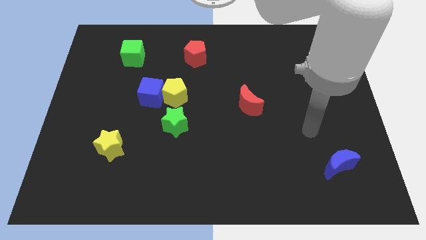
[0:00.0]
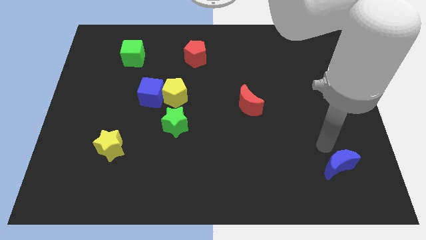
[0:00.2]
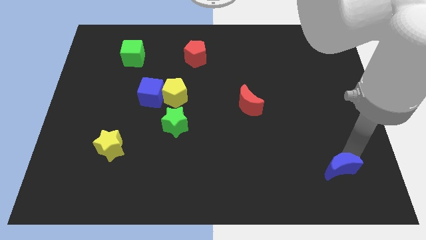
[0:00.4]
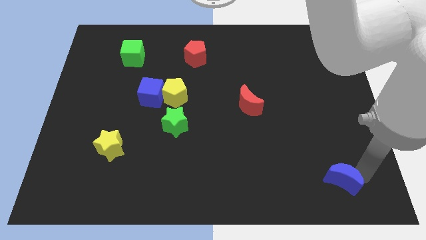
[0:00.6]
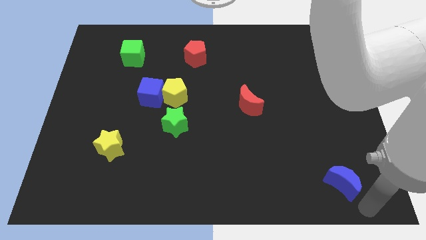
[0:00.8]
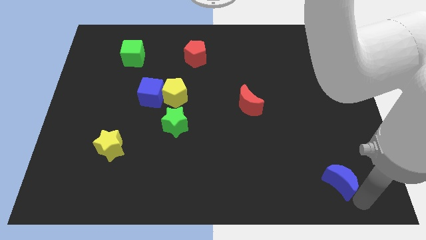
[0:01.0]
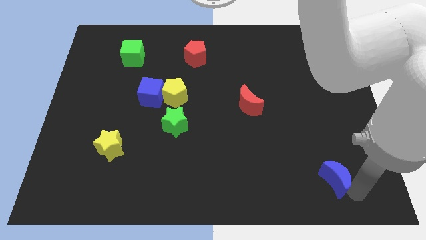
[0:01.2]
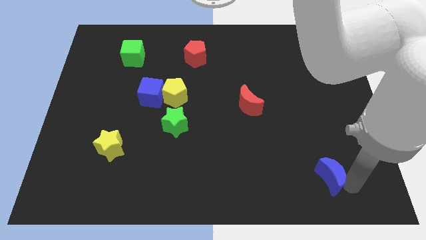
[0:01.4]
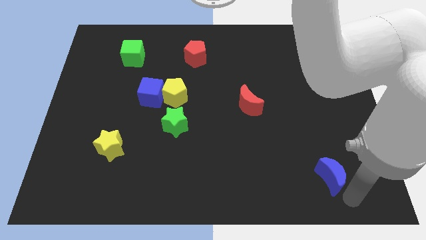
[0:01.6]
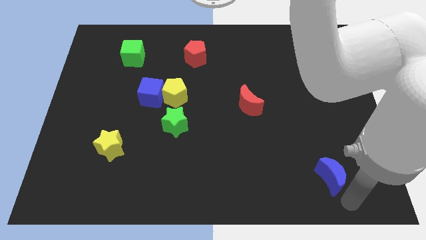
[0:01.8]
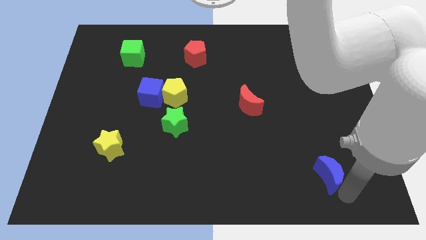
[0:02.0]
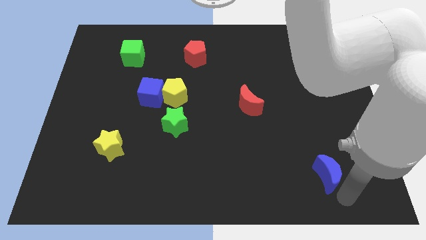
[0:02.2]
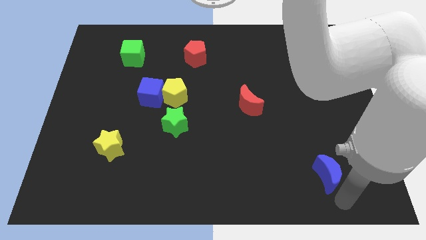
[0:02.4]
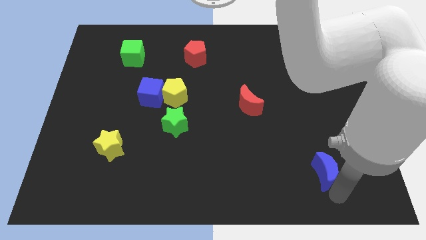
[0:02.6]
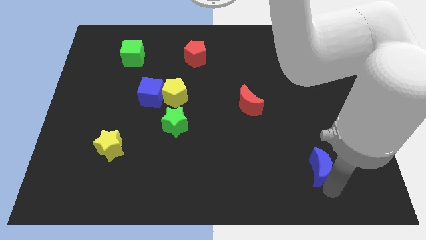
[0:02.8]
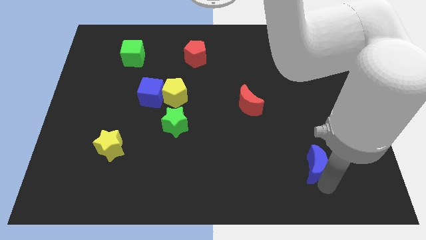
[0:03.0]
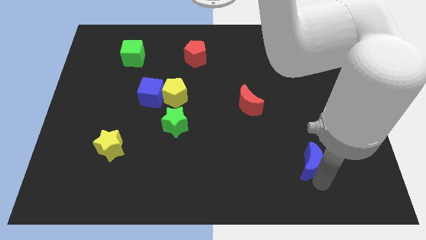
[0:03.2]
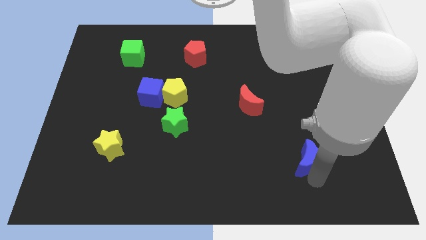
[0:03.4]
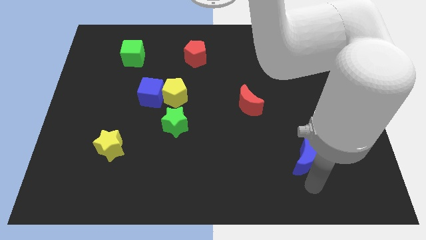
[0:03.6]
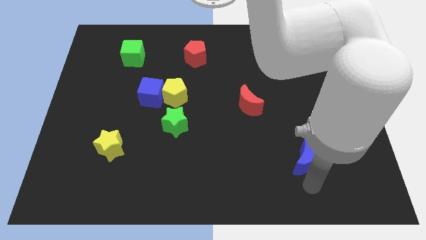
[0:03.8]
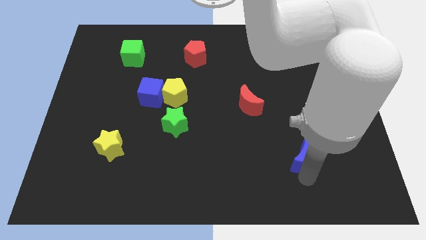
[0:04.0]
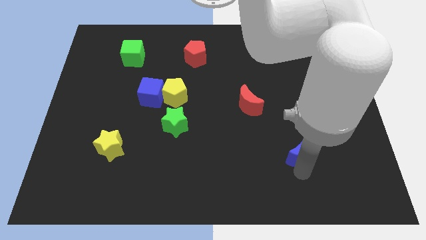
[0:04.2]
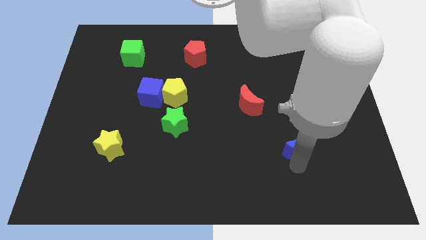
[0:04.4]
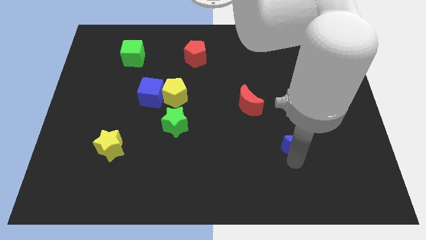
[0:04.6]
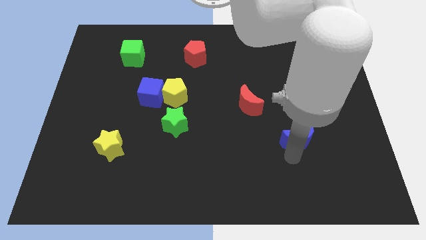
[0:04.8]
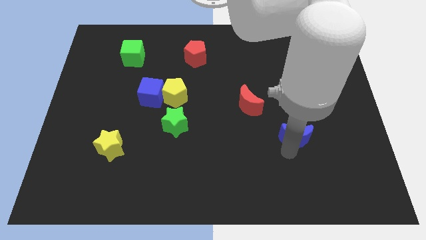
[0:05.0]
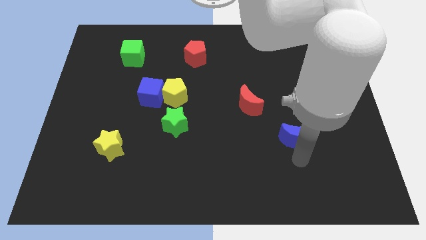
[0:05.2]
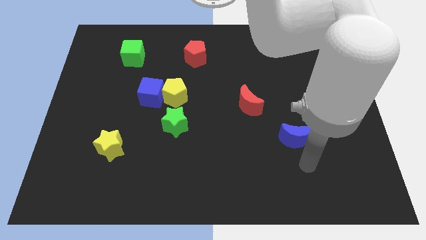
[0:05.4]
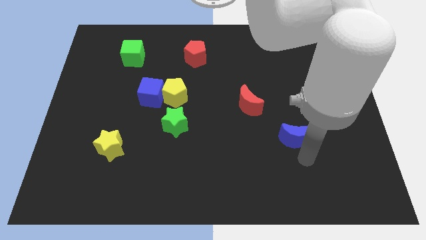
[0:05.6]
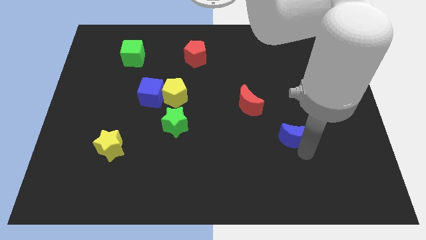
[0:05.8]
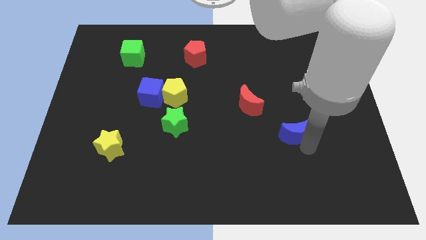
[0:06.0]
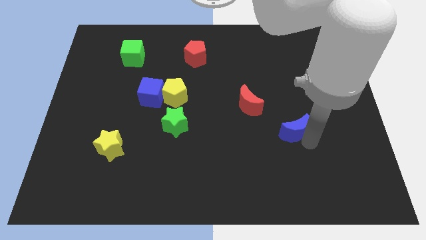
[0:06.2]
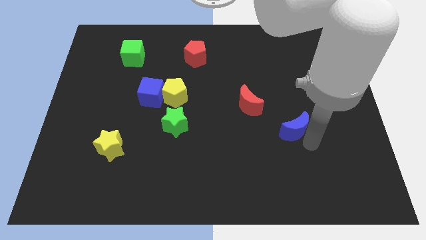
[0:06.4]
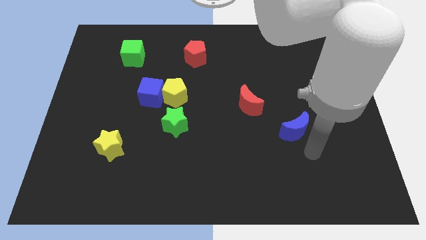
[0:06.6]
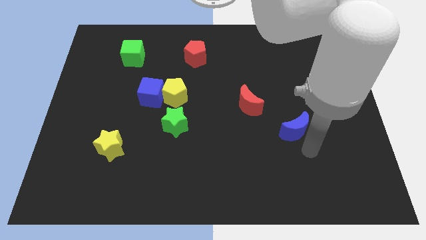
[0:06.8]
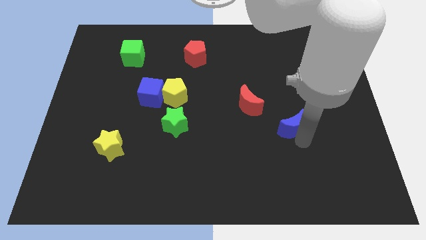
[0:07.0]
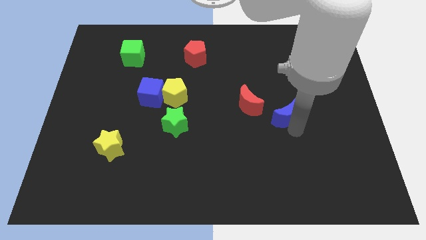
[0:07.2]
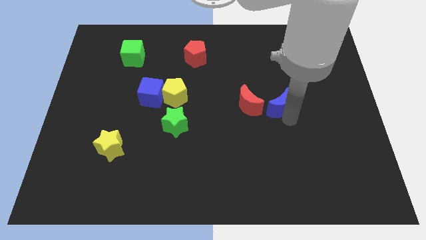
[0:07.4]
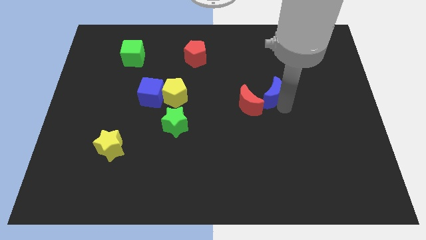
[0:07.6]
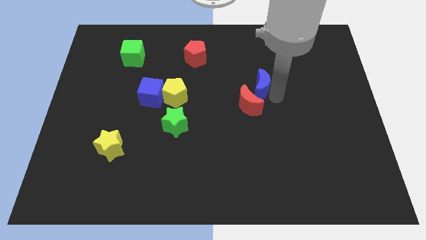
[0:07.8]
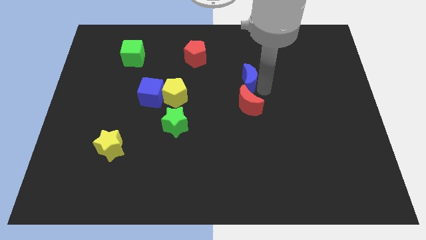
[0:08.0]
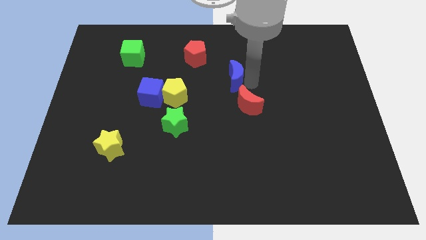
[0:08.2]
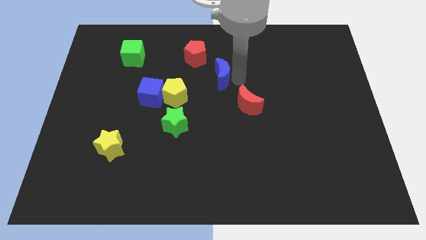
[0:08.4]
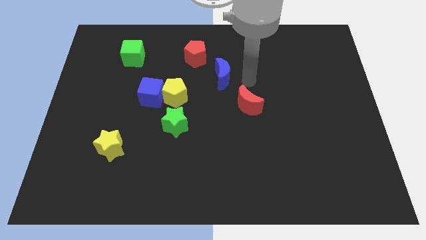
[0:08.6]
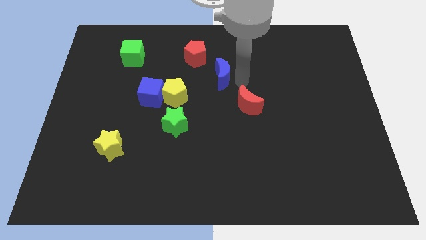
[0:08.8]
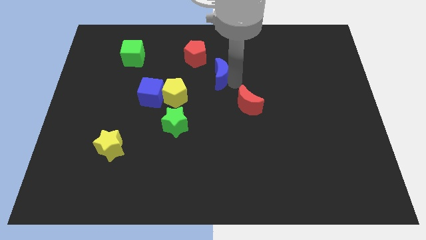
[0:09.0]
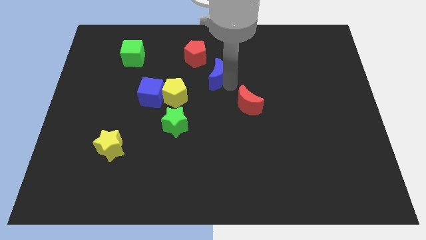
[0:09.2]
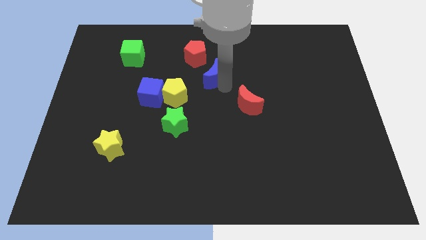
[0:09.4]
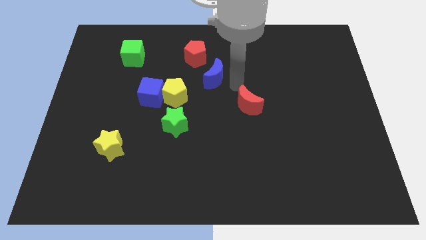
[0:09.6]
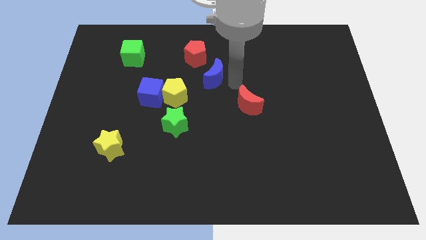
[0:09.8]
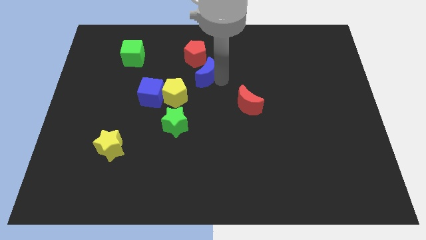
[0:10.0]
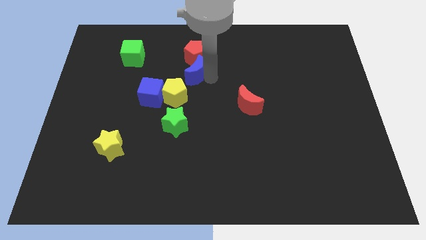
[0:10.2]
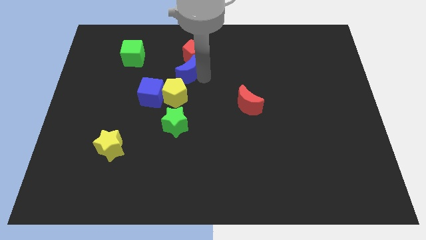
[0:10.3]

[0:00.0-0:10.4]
slide the blue moon to the top side of the yellow pentagon

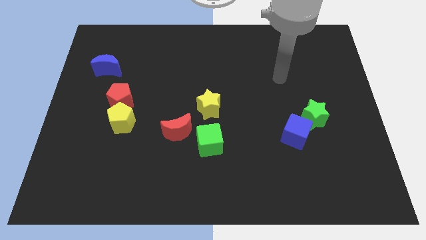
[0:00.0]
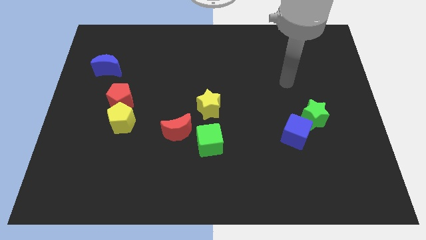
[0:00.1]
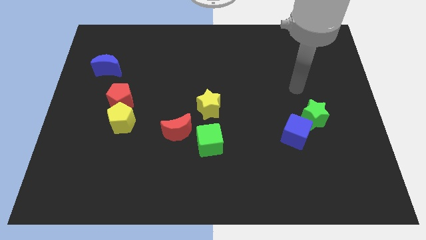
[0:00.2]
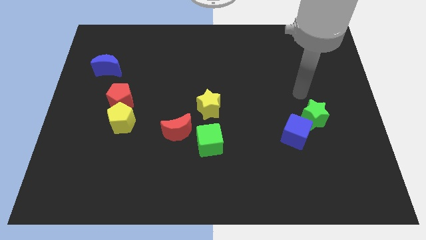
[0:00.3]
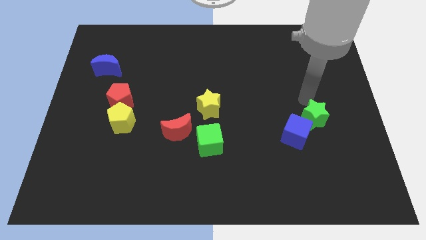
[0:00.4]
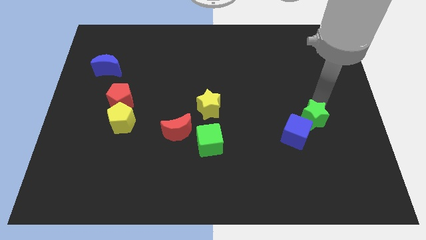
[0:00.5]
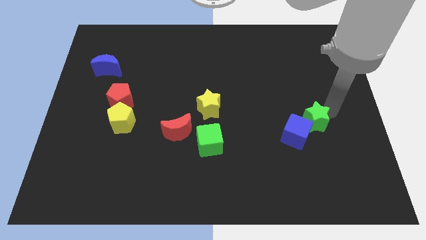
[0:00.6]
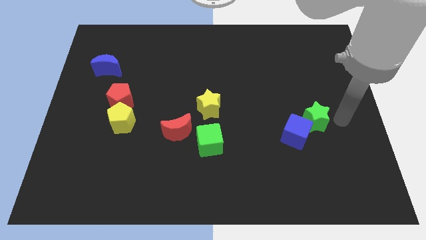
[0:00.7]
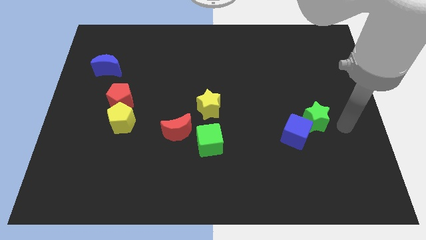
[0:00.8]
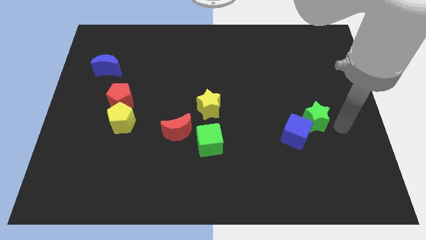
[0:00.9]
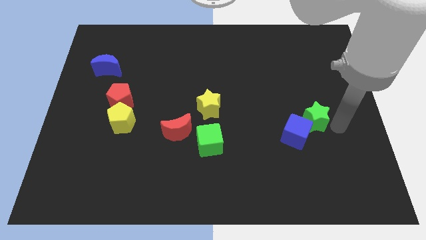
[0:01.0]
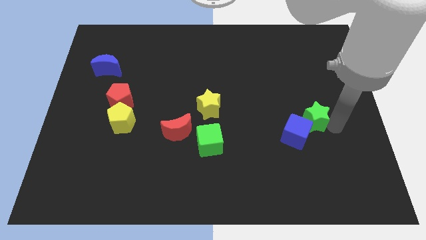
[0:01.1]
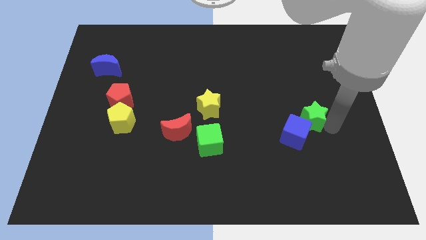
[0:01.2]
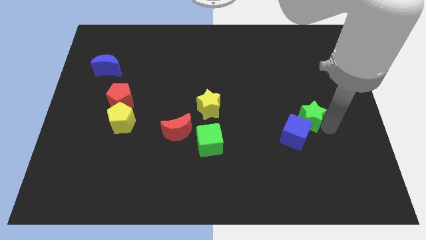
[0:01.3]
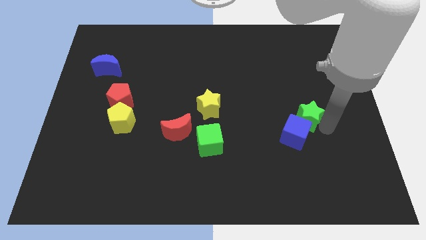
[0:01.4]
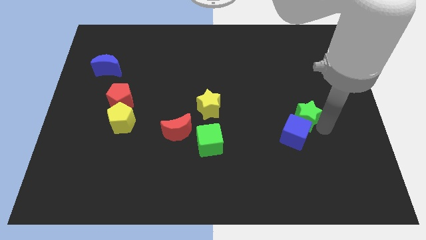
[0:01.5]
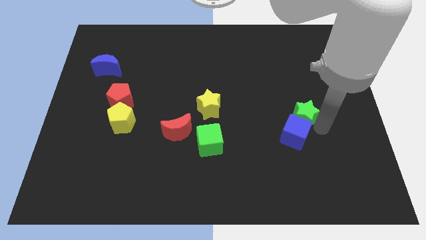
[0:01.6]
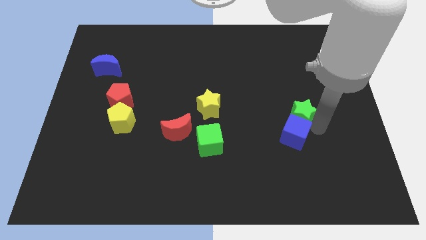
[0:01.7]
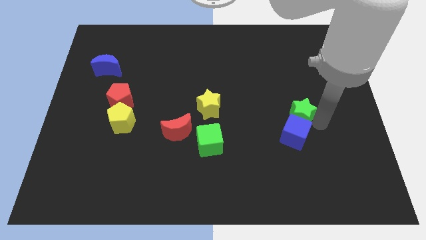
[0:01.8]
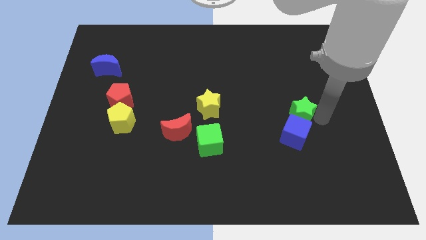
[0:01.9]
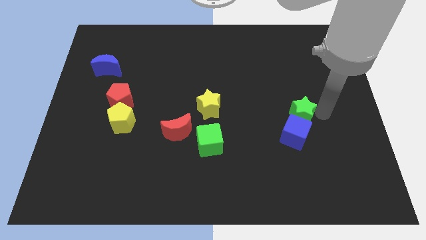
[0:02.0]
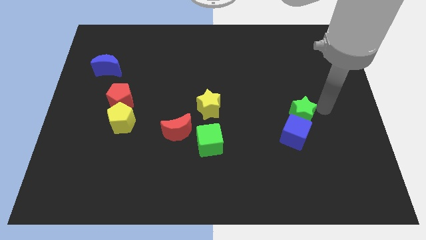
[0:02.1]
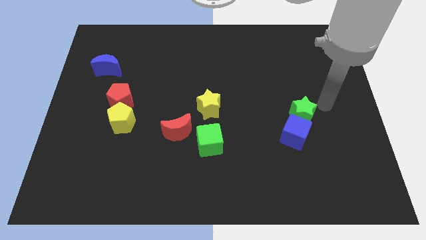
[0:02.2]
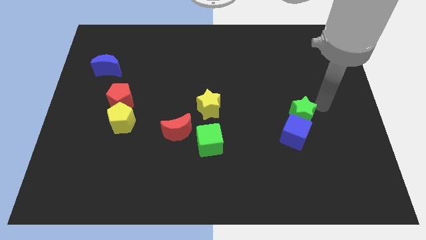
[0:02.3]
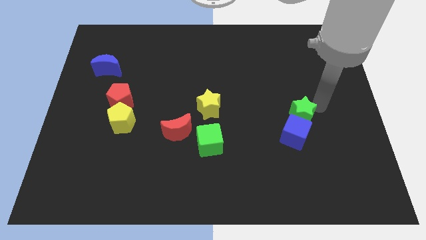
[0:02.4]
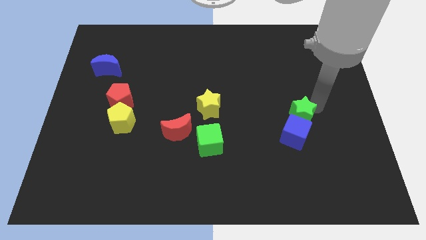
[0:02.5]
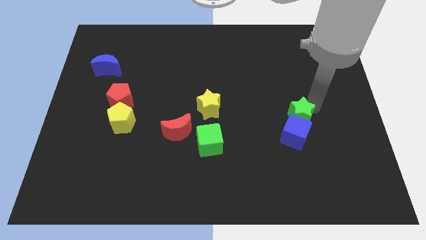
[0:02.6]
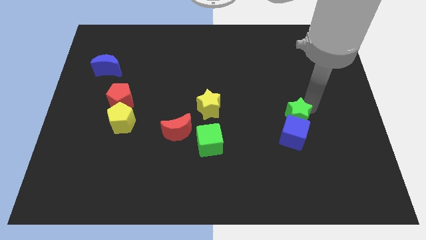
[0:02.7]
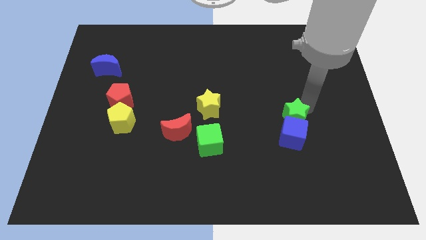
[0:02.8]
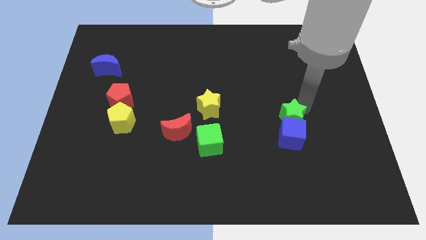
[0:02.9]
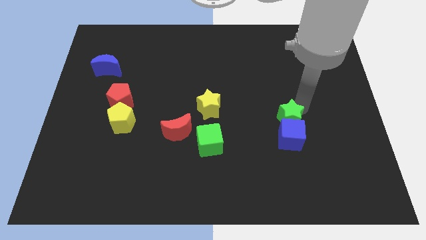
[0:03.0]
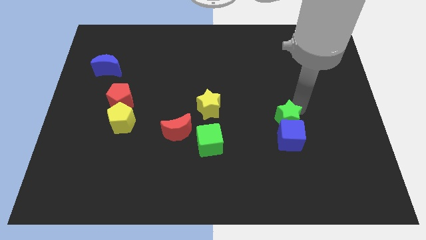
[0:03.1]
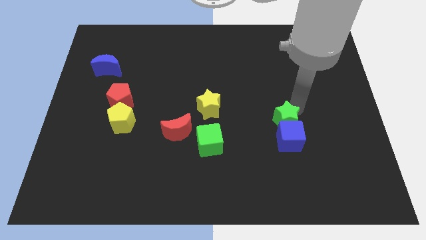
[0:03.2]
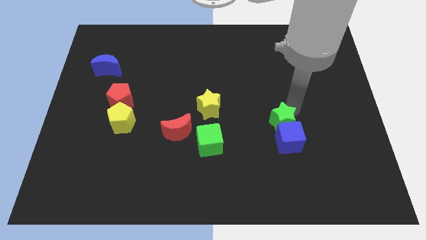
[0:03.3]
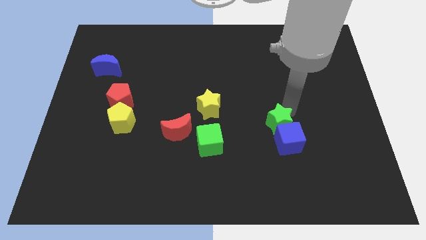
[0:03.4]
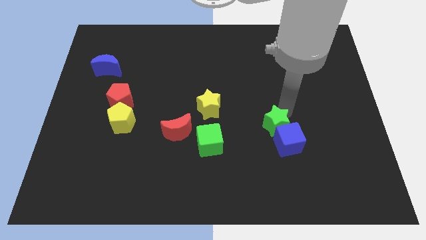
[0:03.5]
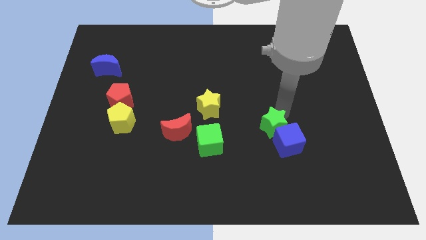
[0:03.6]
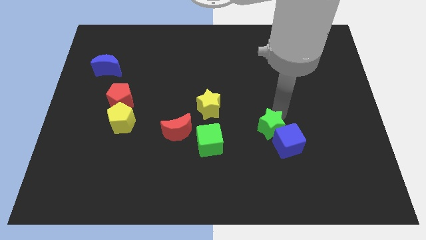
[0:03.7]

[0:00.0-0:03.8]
put the green star just right of the green cube
